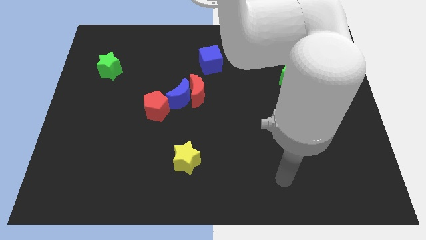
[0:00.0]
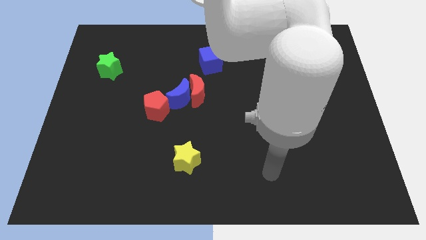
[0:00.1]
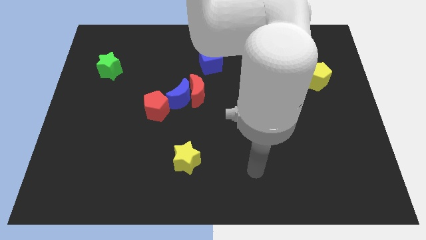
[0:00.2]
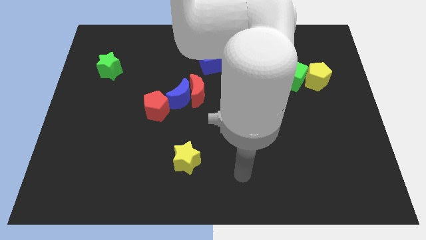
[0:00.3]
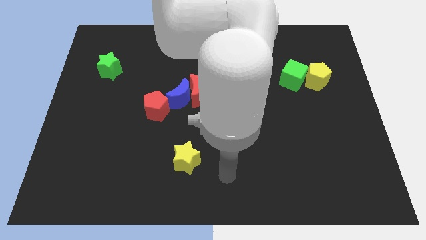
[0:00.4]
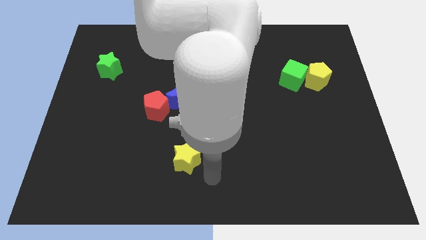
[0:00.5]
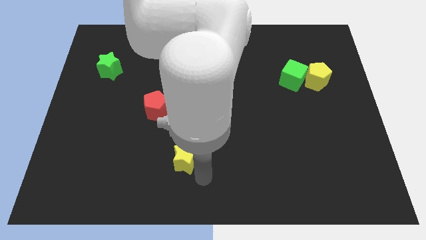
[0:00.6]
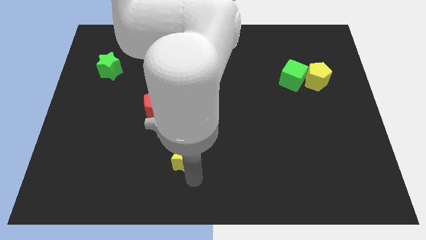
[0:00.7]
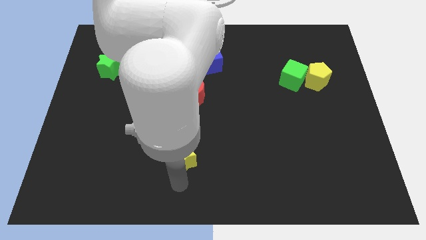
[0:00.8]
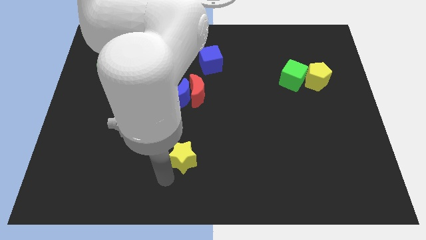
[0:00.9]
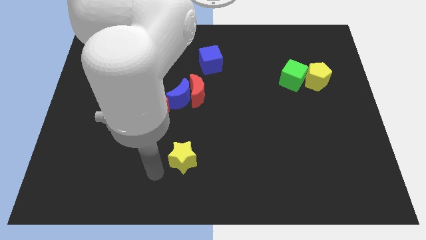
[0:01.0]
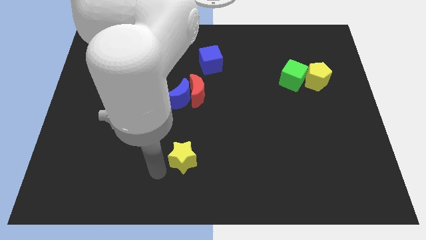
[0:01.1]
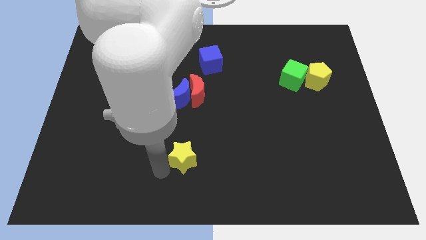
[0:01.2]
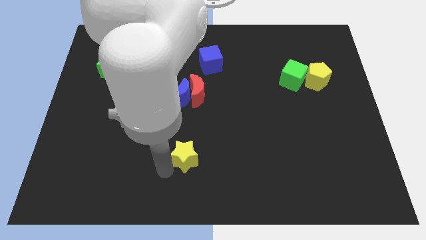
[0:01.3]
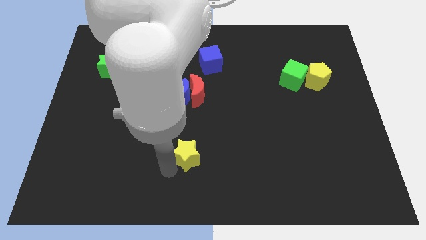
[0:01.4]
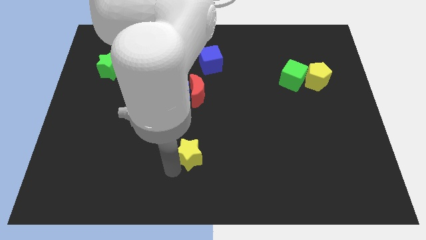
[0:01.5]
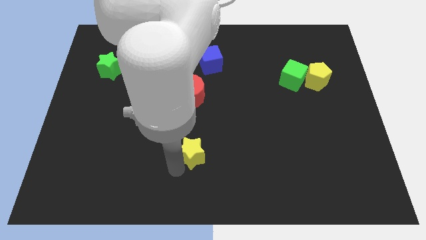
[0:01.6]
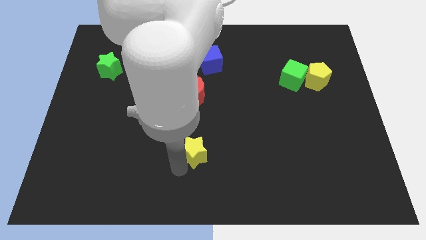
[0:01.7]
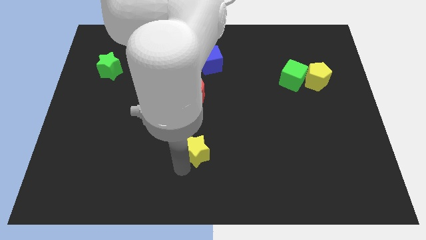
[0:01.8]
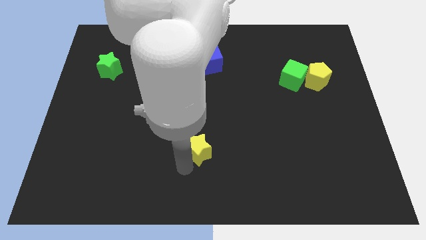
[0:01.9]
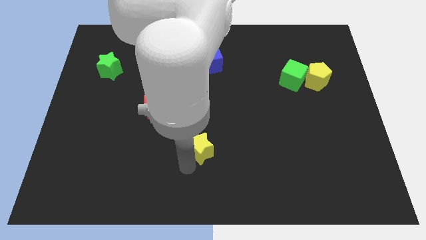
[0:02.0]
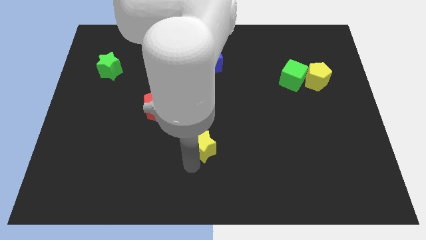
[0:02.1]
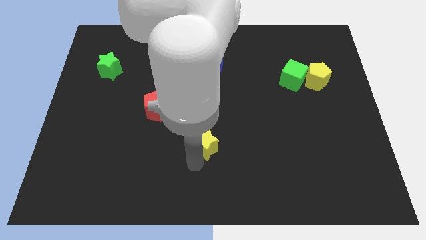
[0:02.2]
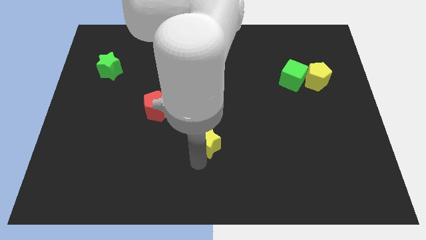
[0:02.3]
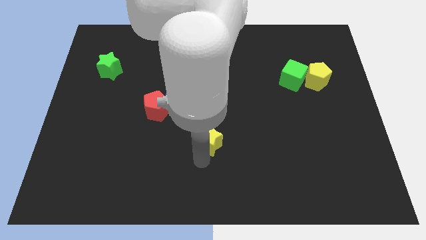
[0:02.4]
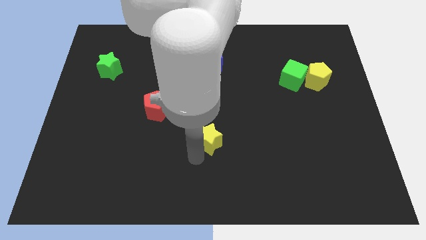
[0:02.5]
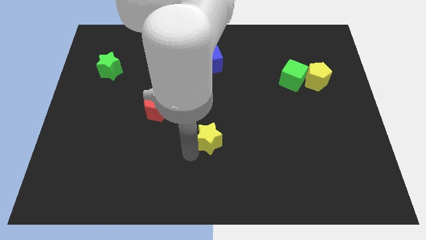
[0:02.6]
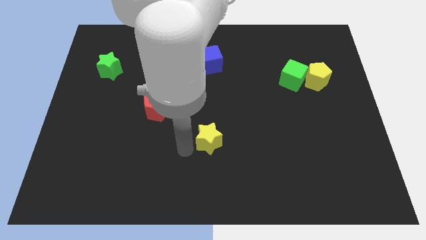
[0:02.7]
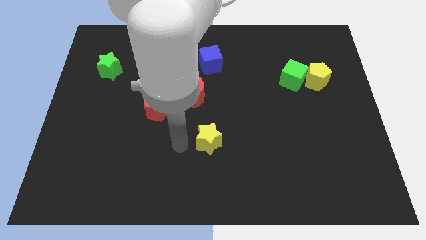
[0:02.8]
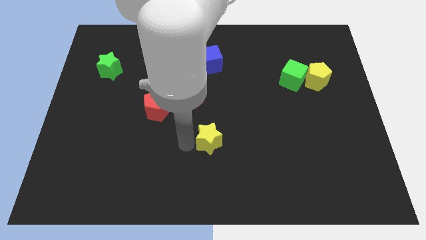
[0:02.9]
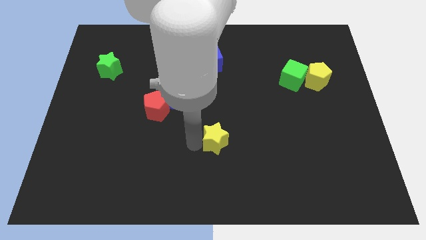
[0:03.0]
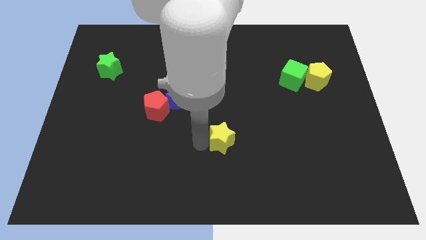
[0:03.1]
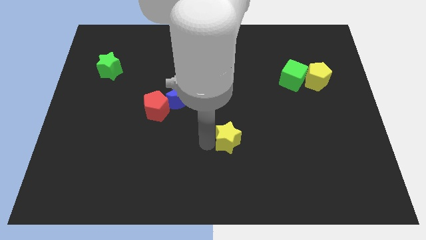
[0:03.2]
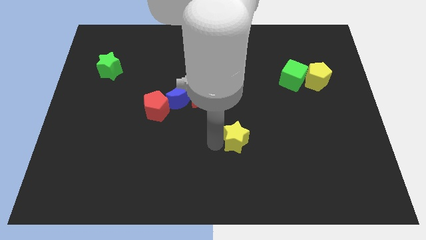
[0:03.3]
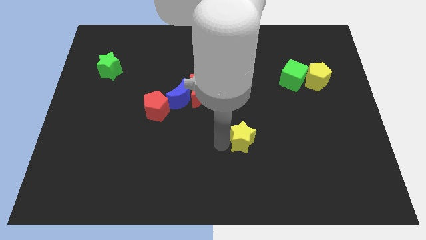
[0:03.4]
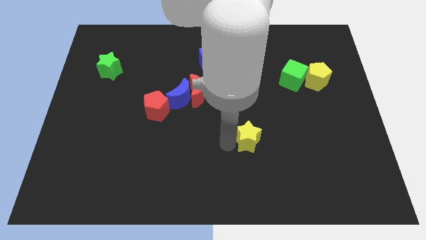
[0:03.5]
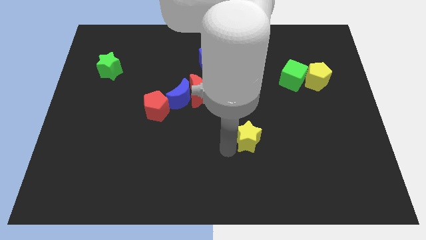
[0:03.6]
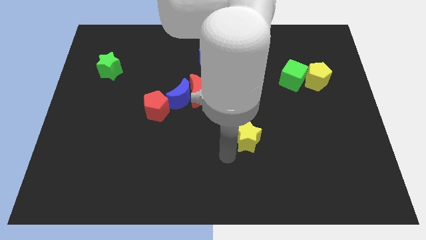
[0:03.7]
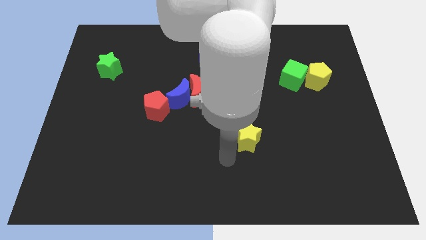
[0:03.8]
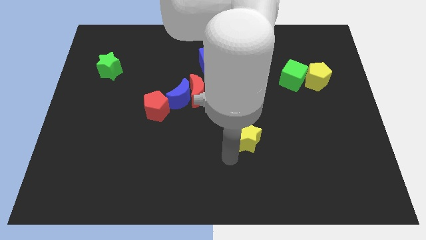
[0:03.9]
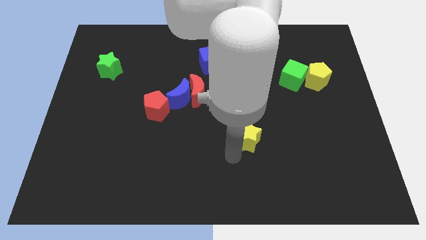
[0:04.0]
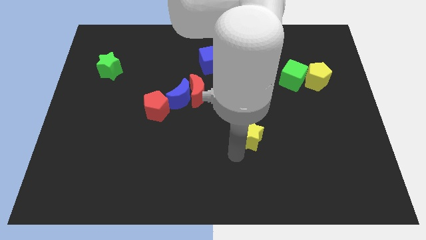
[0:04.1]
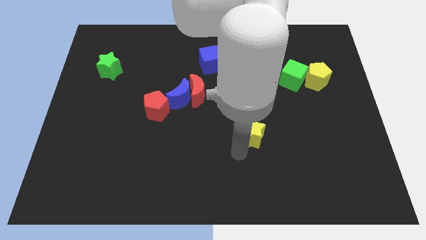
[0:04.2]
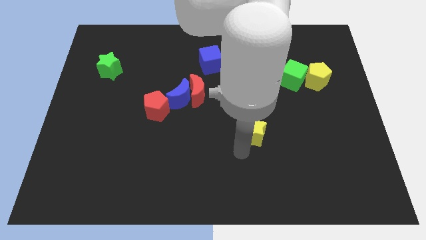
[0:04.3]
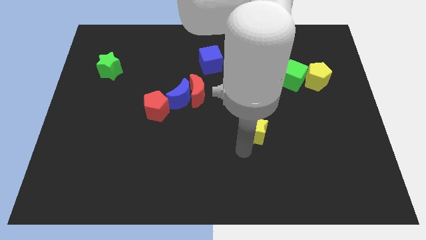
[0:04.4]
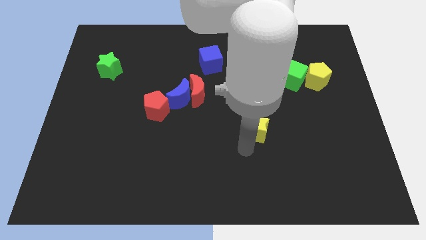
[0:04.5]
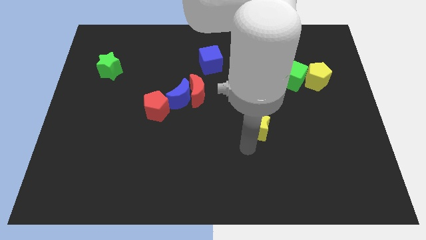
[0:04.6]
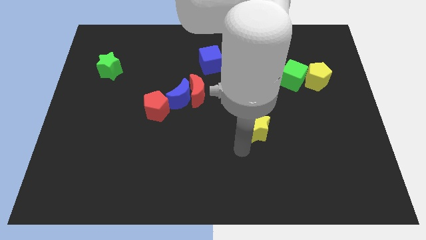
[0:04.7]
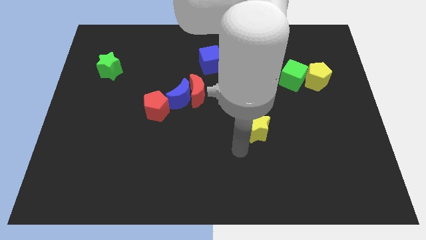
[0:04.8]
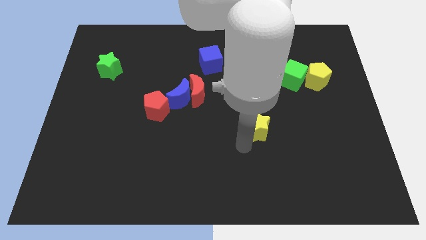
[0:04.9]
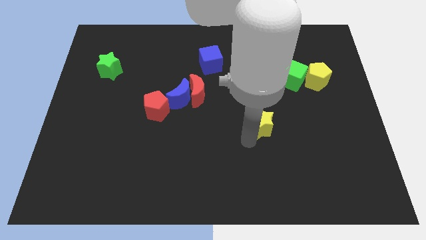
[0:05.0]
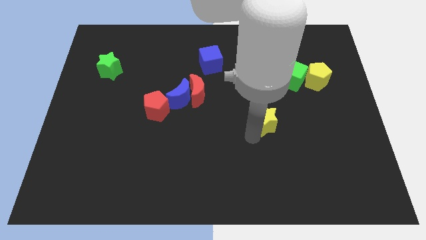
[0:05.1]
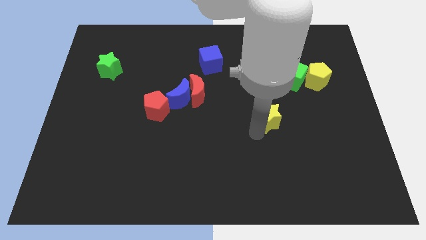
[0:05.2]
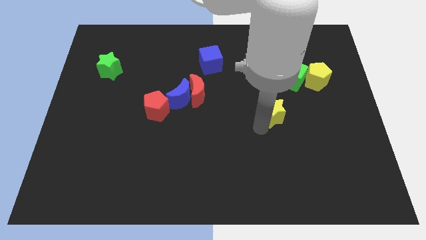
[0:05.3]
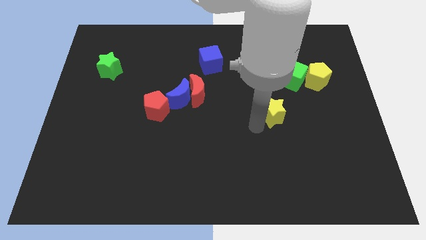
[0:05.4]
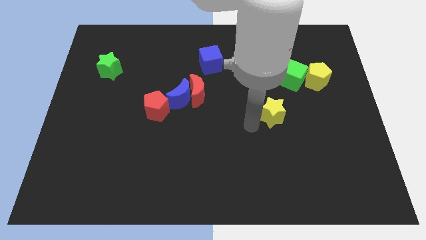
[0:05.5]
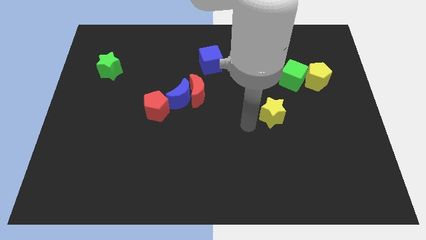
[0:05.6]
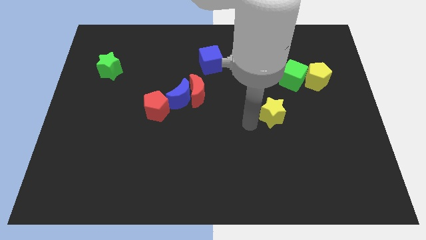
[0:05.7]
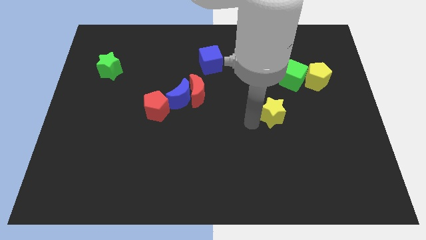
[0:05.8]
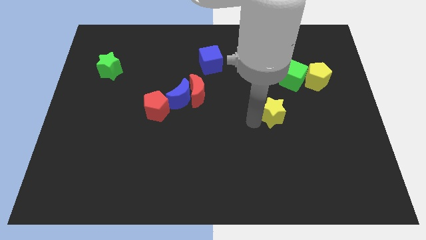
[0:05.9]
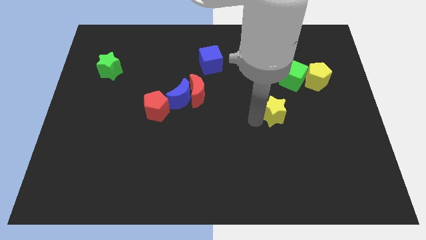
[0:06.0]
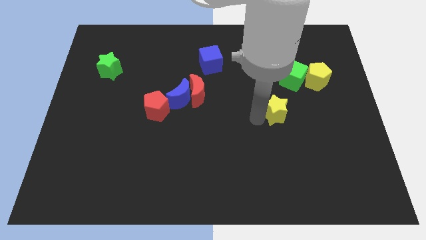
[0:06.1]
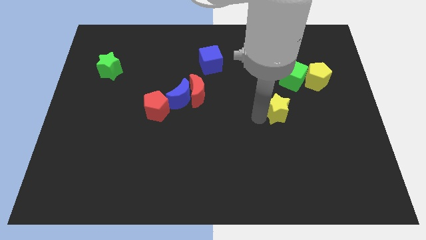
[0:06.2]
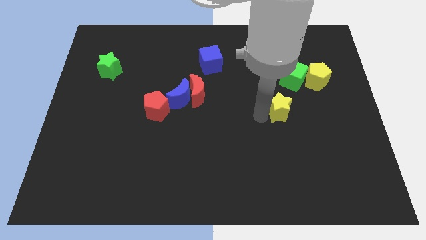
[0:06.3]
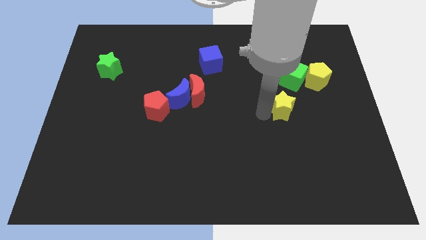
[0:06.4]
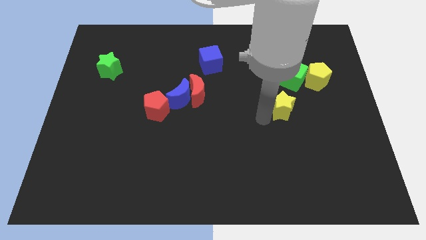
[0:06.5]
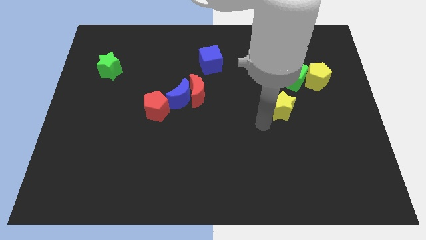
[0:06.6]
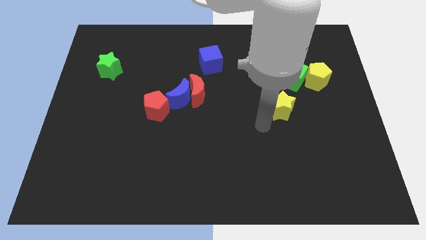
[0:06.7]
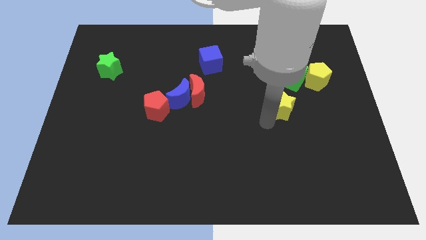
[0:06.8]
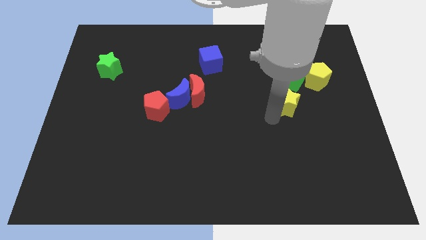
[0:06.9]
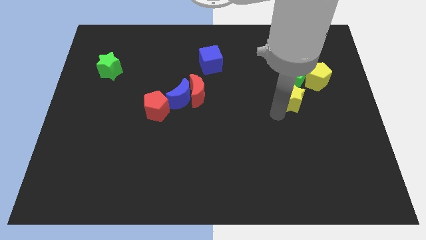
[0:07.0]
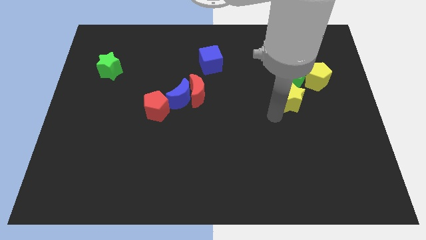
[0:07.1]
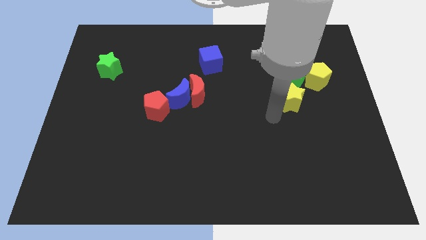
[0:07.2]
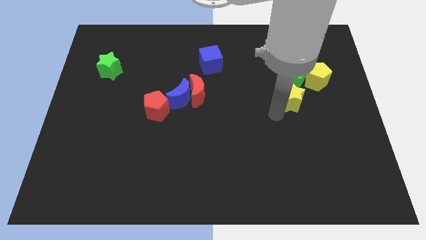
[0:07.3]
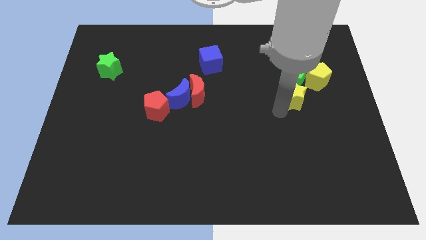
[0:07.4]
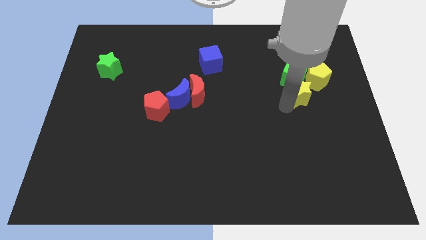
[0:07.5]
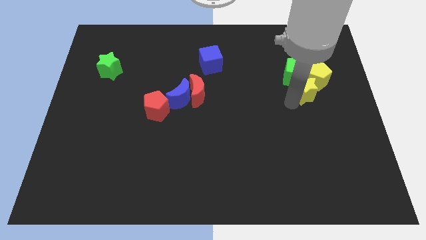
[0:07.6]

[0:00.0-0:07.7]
move the yellow star towards the yellow pentagon
